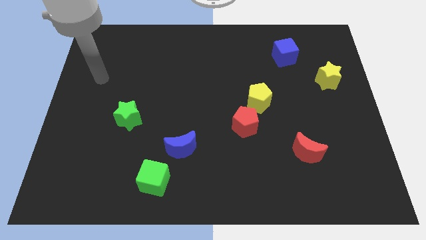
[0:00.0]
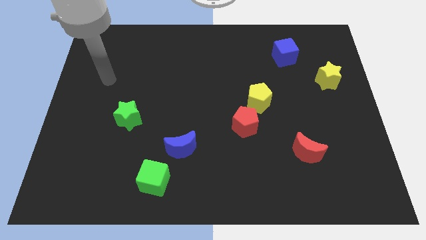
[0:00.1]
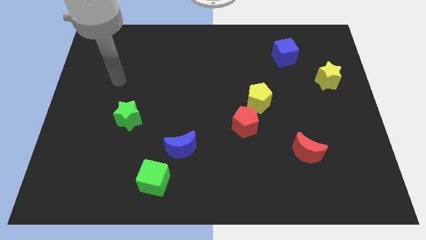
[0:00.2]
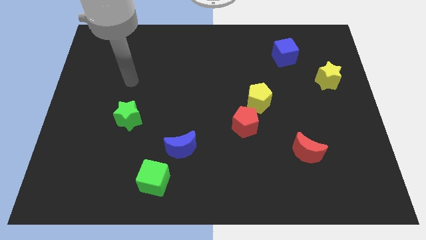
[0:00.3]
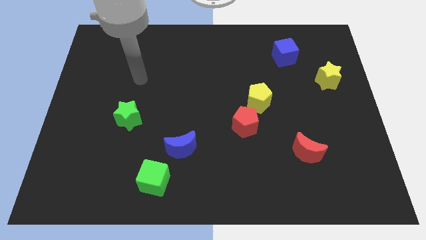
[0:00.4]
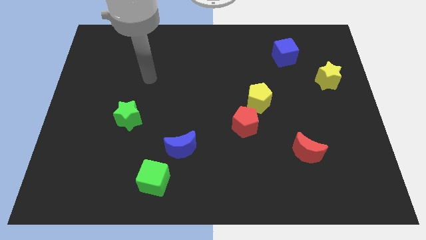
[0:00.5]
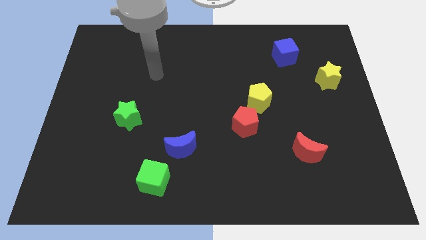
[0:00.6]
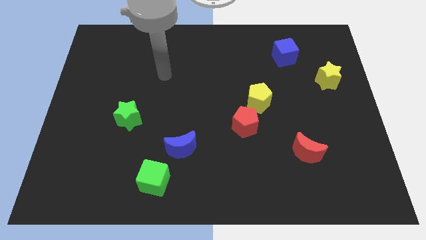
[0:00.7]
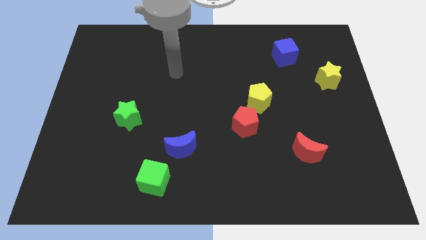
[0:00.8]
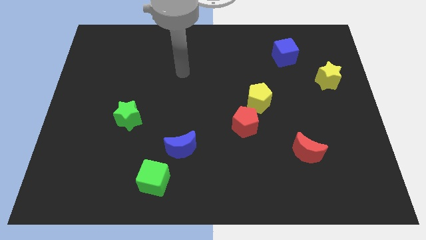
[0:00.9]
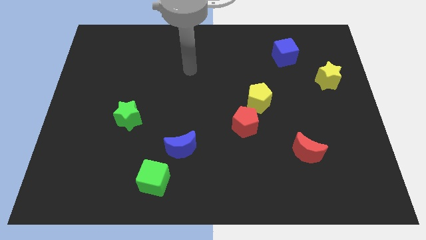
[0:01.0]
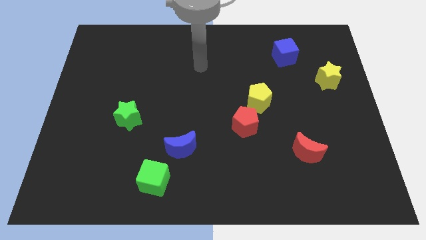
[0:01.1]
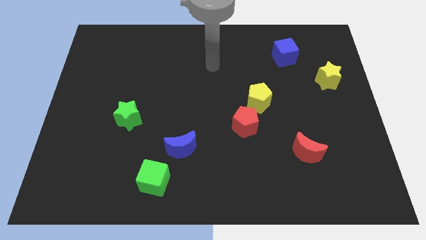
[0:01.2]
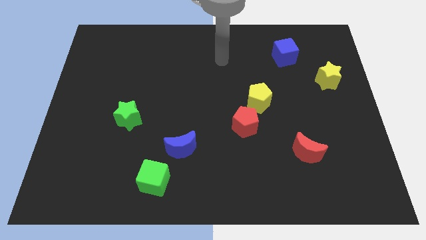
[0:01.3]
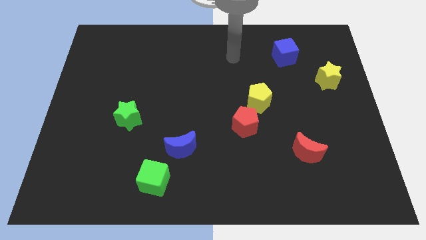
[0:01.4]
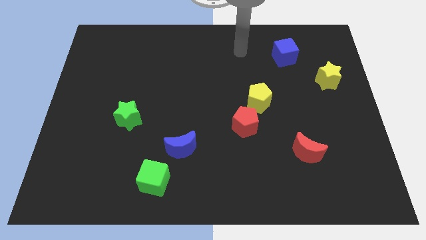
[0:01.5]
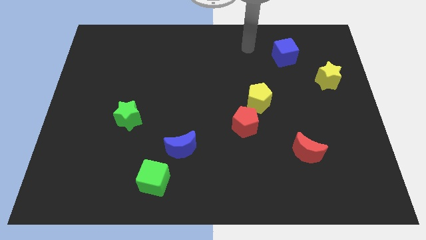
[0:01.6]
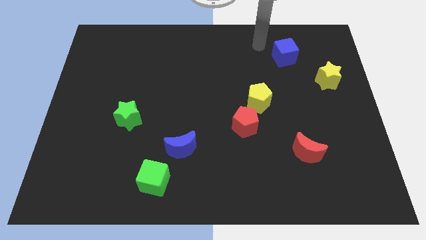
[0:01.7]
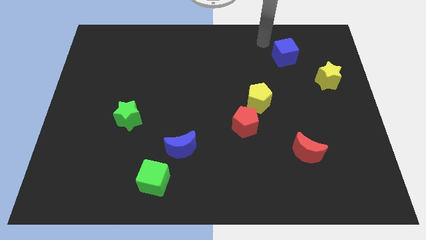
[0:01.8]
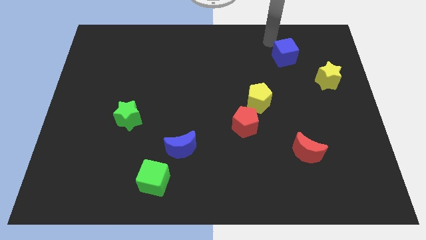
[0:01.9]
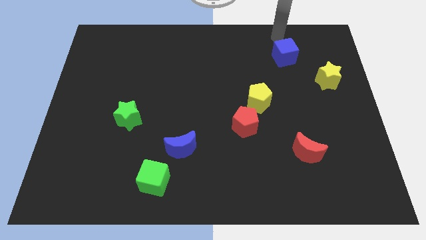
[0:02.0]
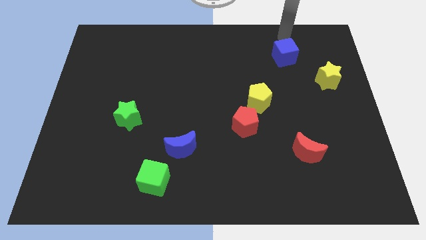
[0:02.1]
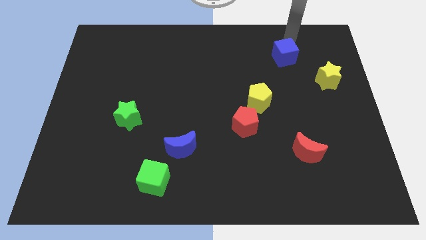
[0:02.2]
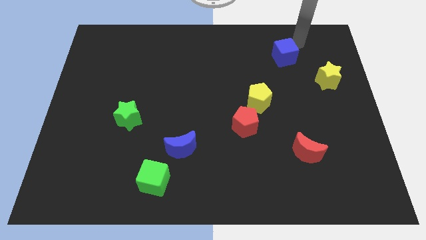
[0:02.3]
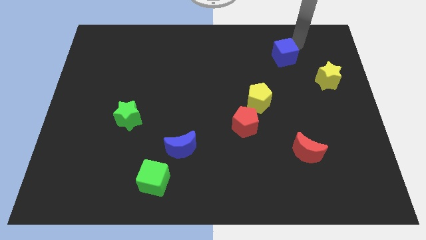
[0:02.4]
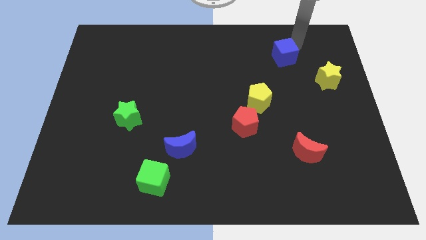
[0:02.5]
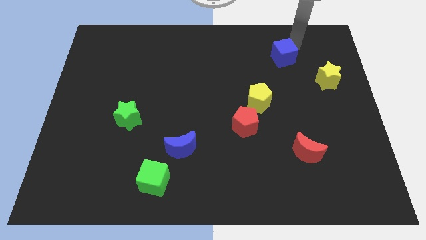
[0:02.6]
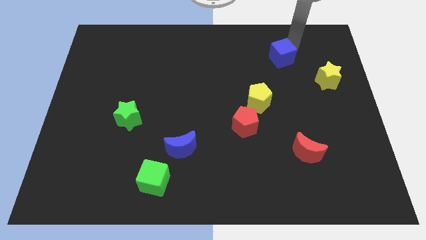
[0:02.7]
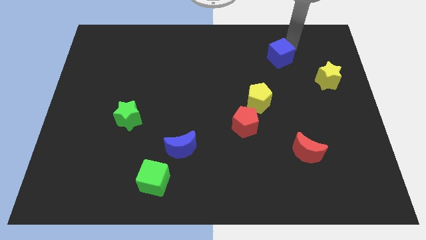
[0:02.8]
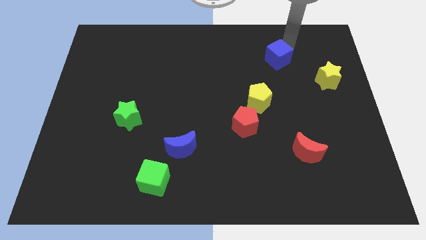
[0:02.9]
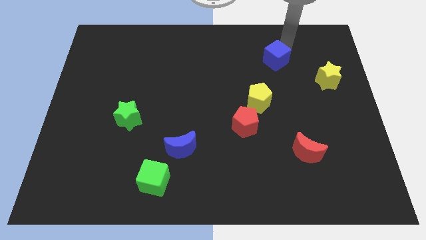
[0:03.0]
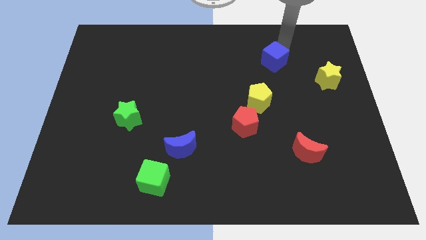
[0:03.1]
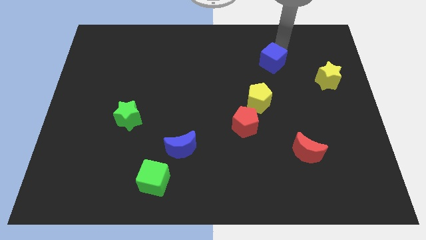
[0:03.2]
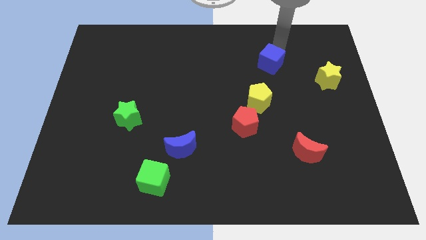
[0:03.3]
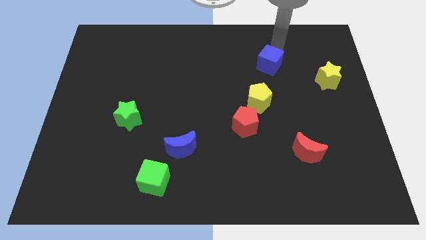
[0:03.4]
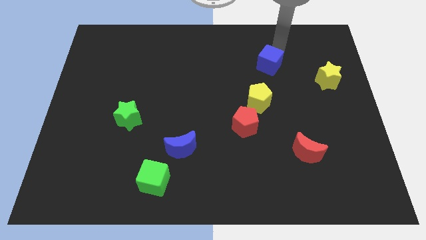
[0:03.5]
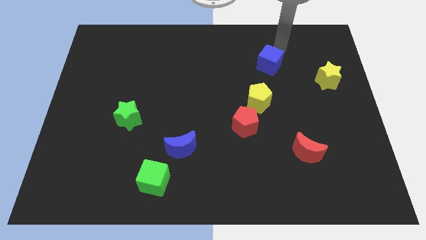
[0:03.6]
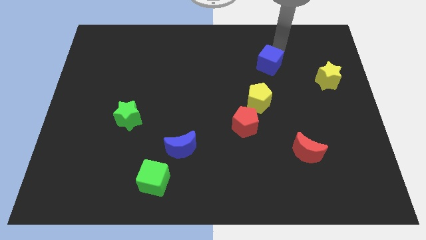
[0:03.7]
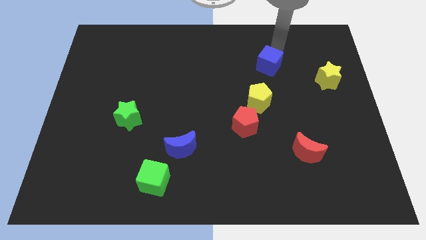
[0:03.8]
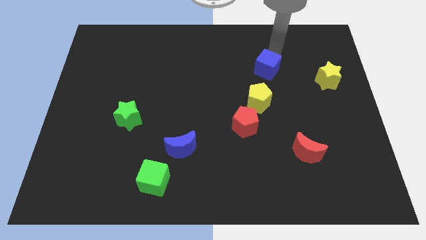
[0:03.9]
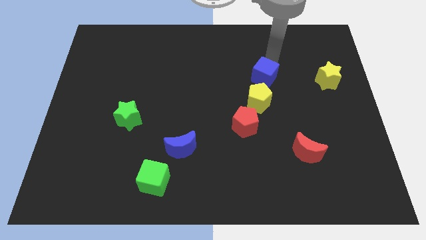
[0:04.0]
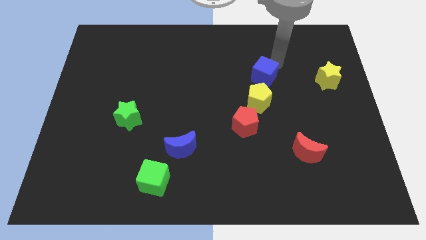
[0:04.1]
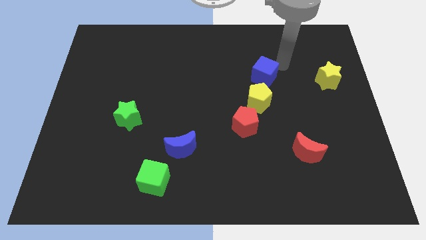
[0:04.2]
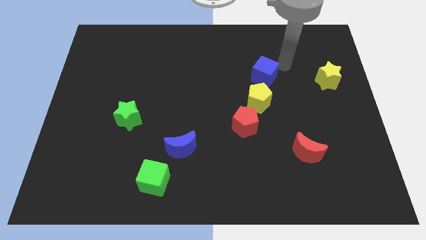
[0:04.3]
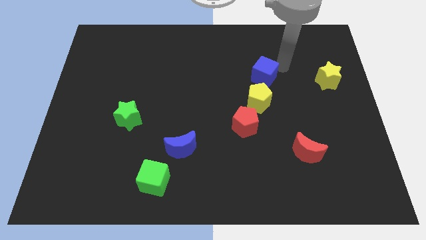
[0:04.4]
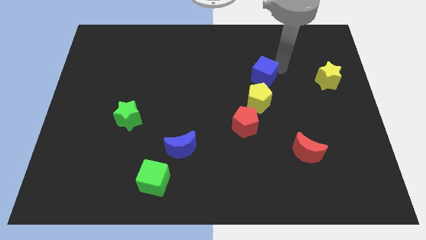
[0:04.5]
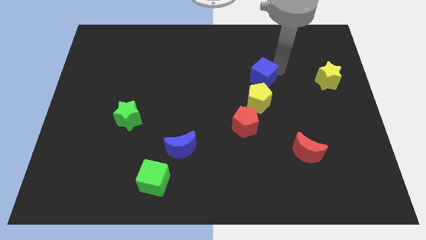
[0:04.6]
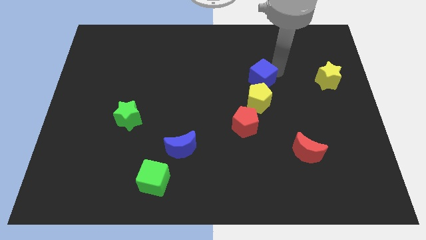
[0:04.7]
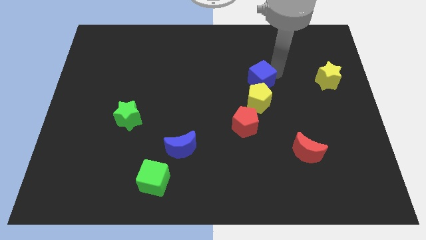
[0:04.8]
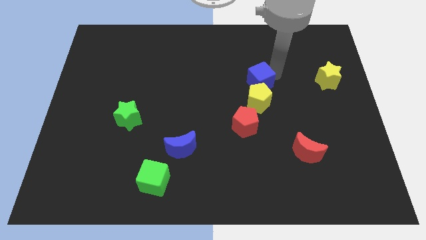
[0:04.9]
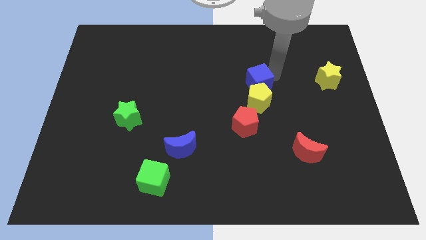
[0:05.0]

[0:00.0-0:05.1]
move the blue cube to the middle

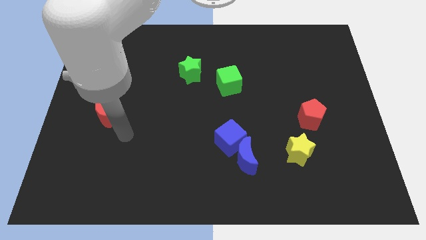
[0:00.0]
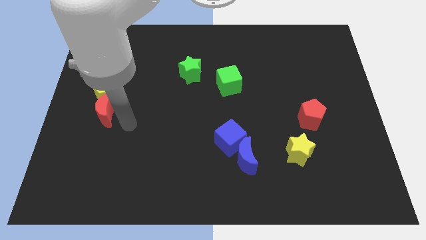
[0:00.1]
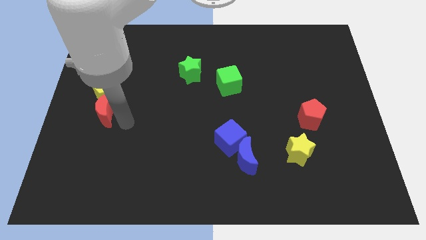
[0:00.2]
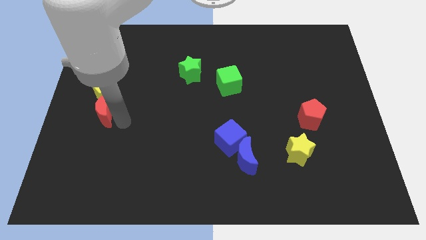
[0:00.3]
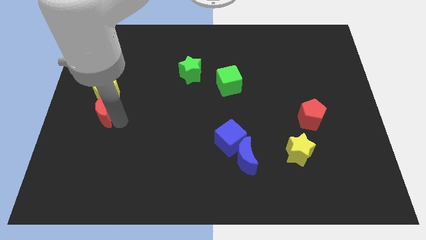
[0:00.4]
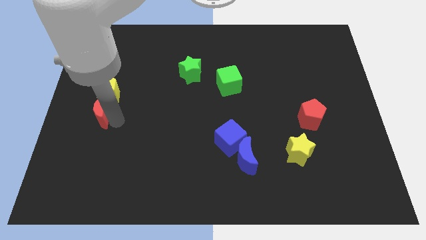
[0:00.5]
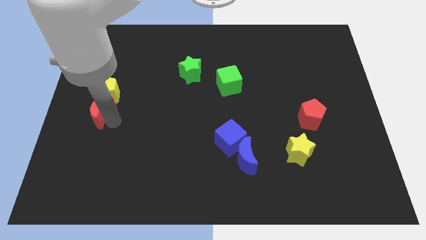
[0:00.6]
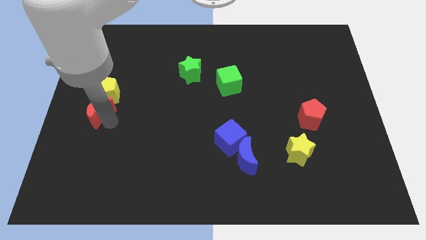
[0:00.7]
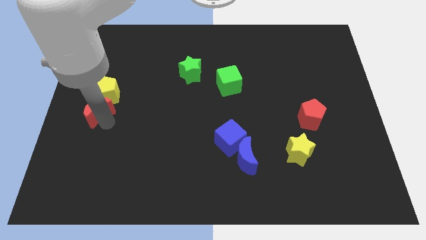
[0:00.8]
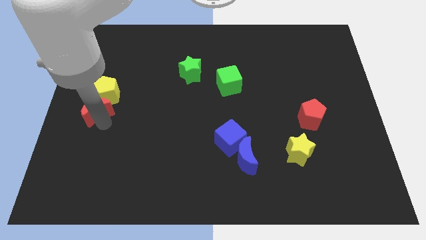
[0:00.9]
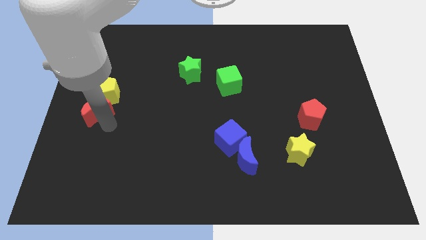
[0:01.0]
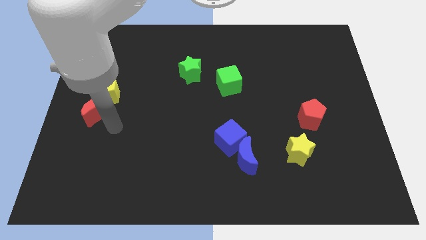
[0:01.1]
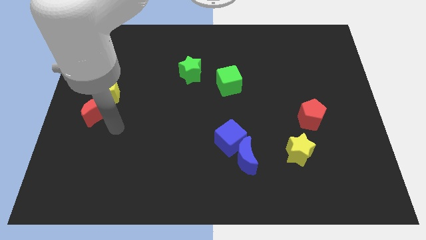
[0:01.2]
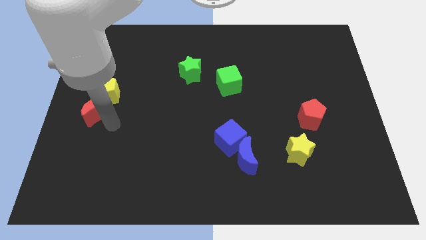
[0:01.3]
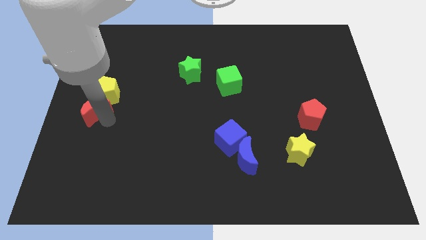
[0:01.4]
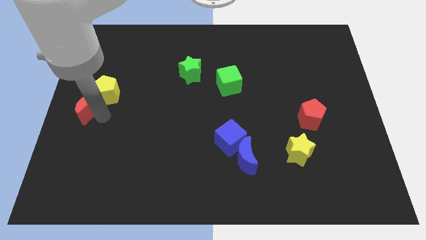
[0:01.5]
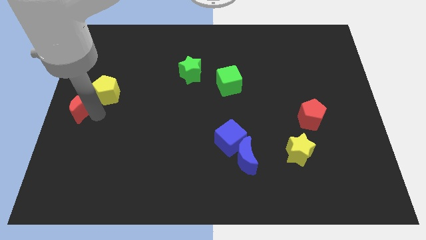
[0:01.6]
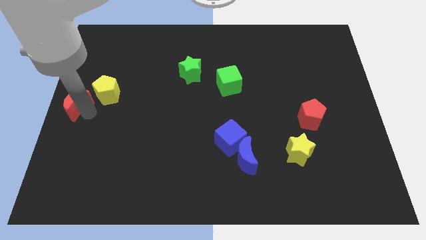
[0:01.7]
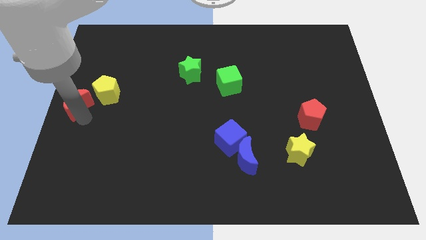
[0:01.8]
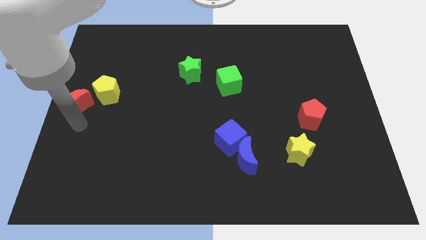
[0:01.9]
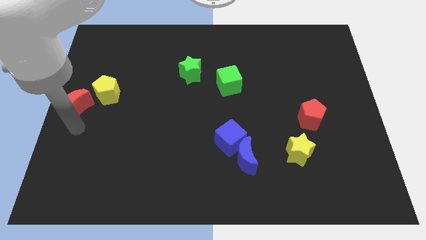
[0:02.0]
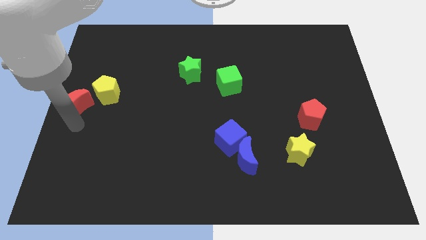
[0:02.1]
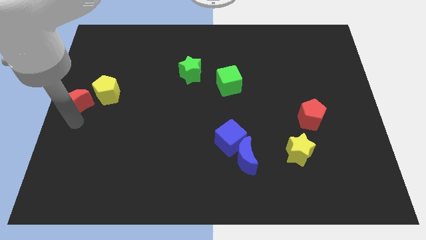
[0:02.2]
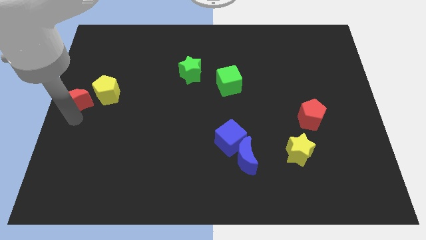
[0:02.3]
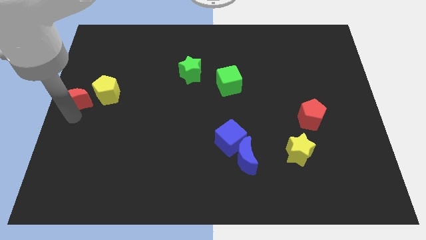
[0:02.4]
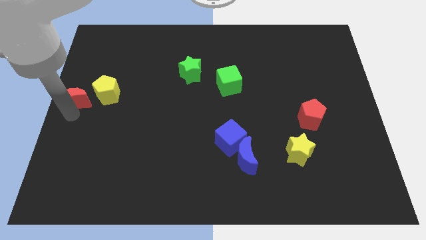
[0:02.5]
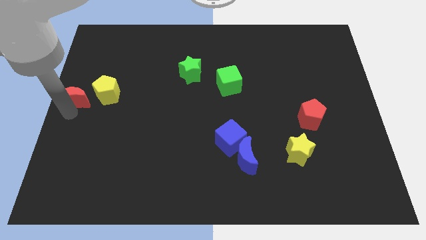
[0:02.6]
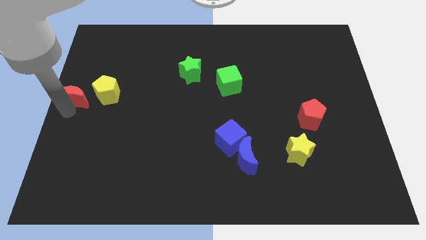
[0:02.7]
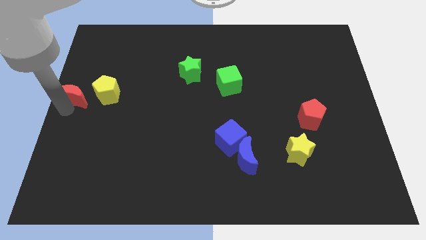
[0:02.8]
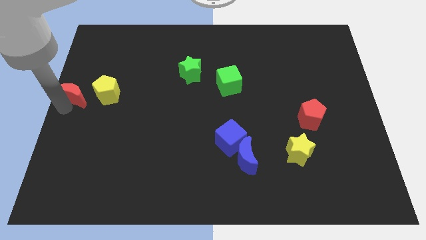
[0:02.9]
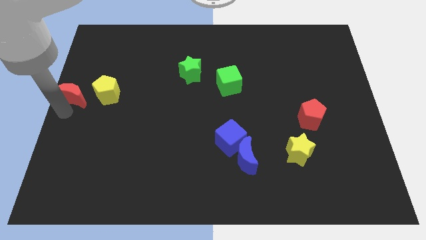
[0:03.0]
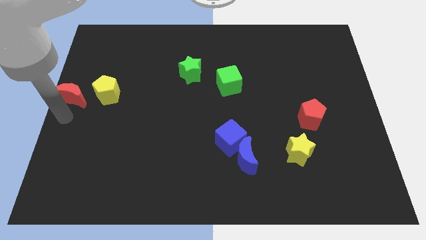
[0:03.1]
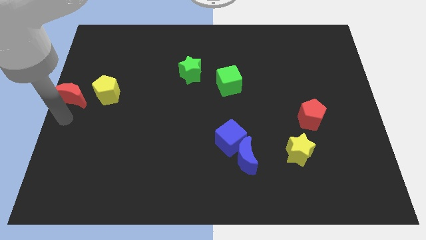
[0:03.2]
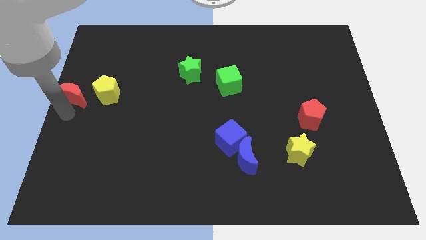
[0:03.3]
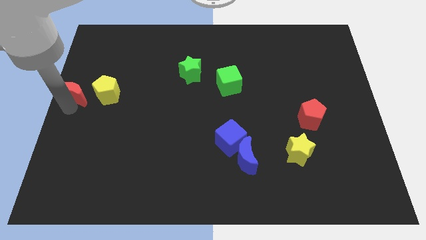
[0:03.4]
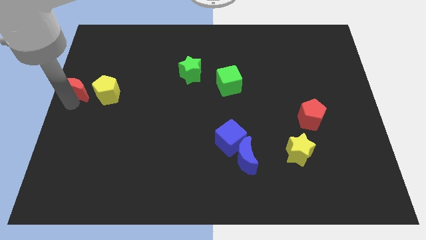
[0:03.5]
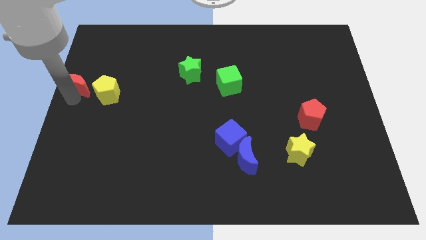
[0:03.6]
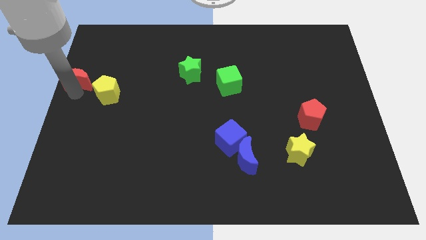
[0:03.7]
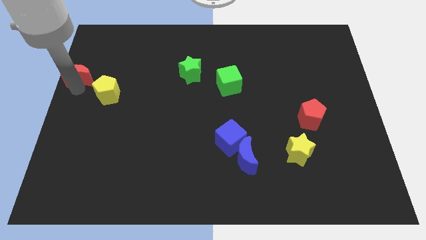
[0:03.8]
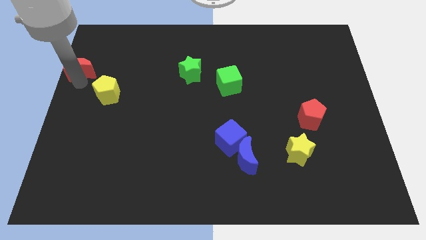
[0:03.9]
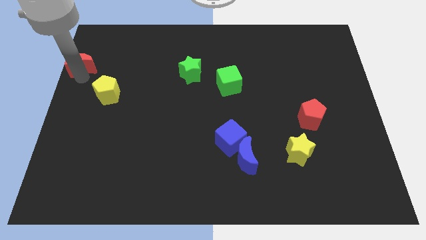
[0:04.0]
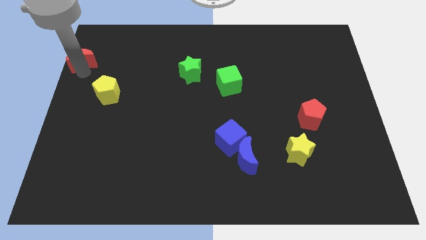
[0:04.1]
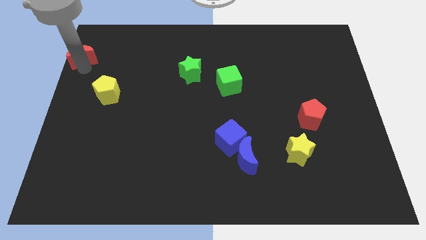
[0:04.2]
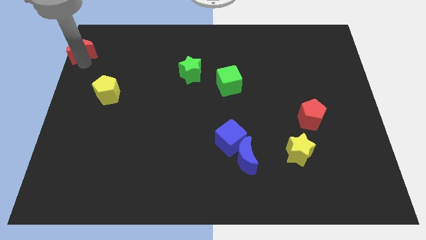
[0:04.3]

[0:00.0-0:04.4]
slide the red moon to the upper left corner
